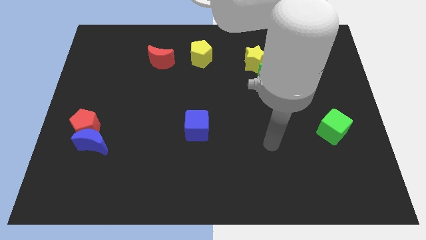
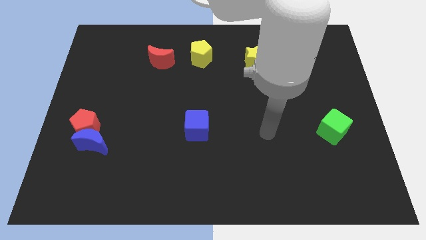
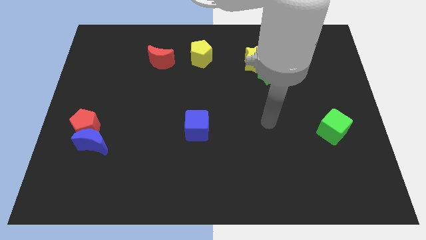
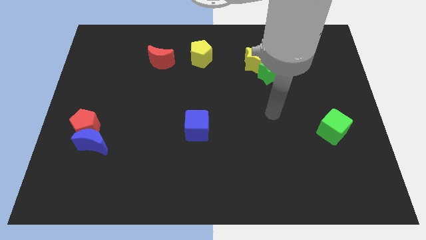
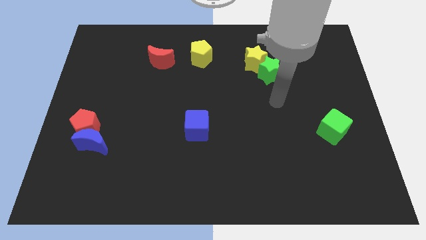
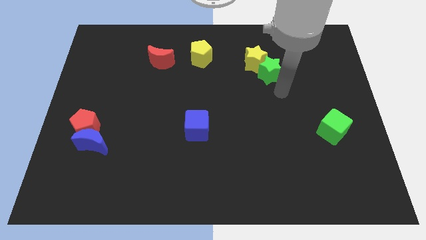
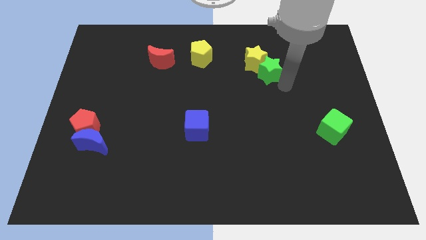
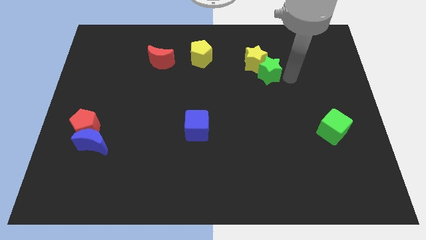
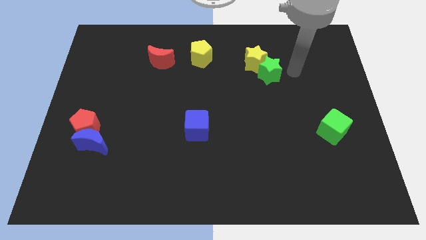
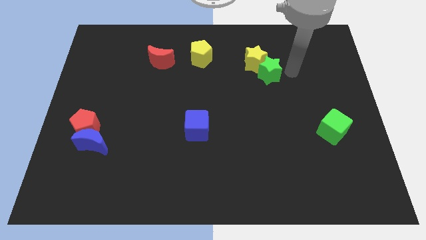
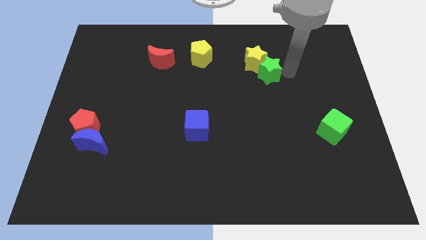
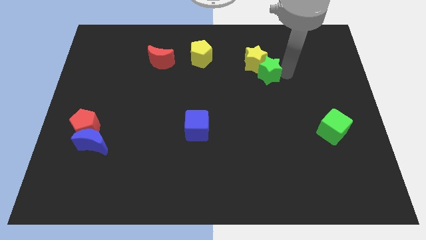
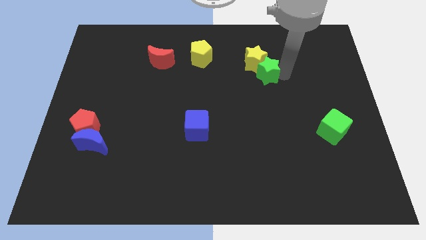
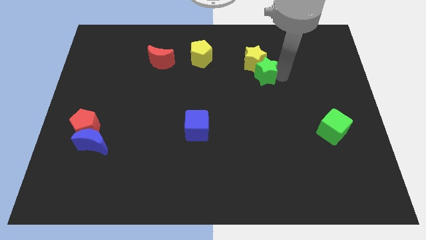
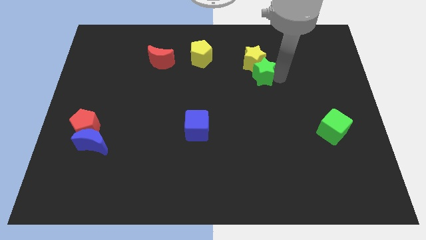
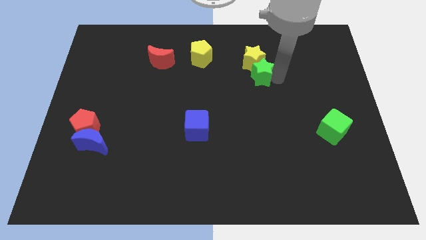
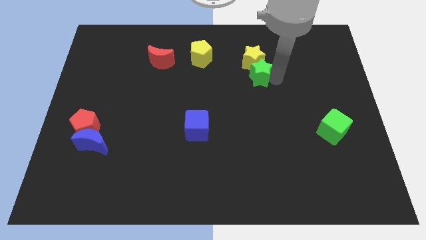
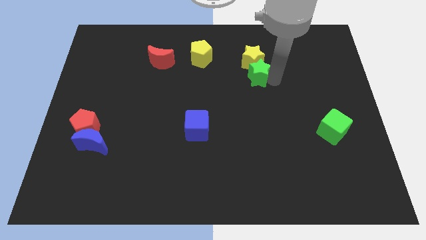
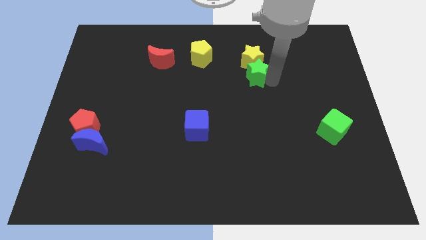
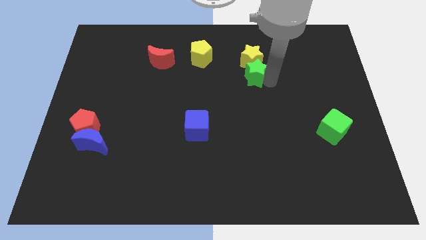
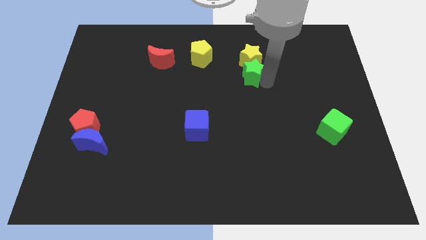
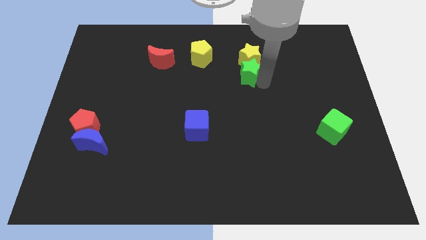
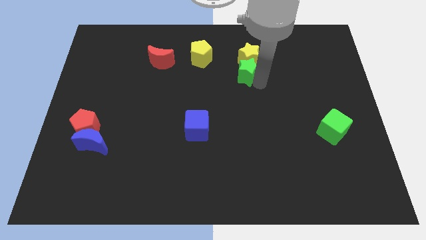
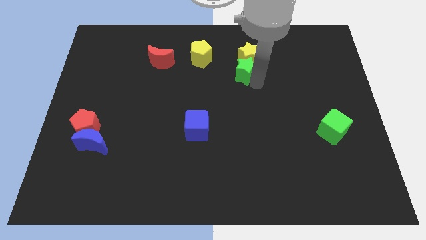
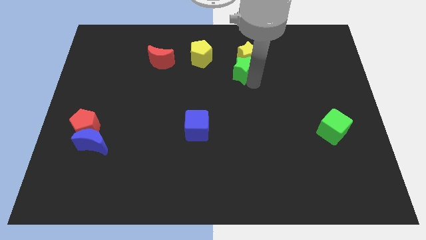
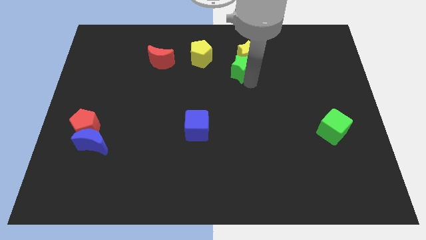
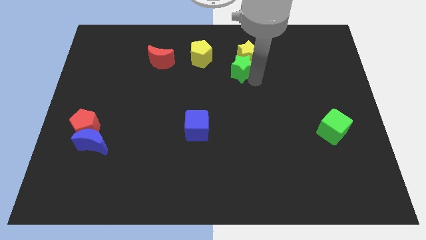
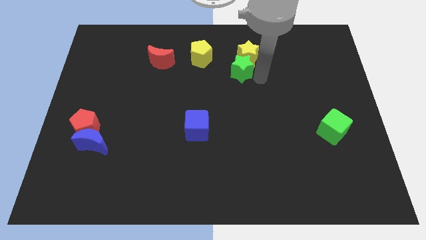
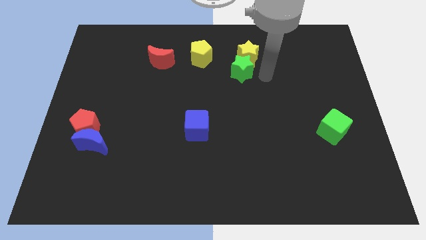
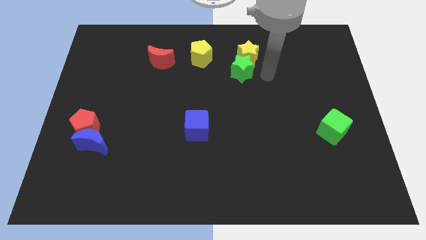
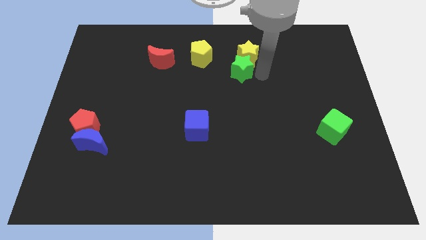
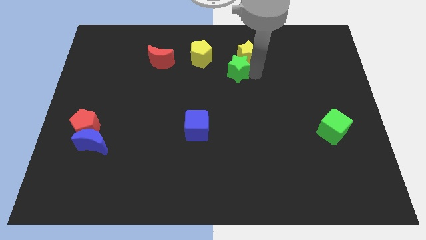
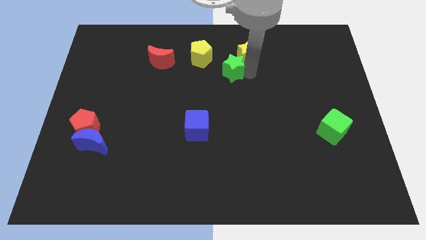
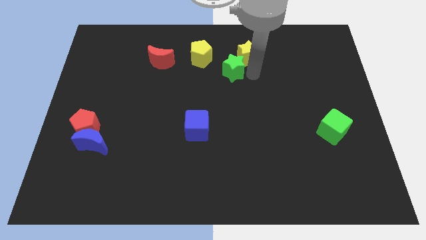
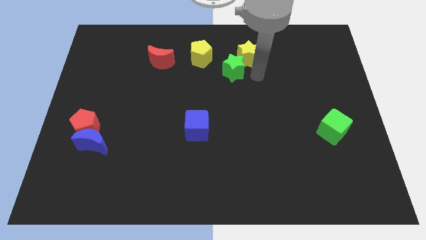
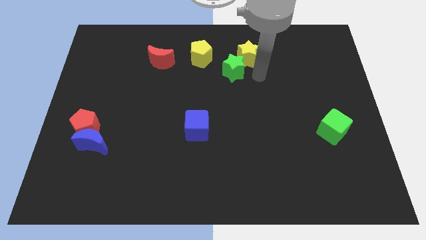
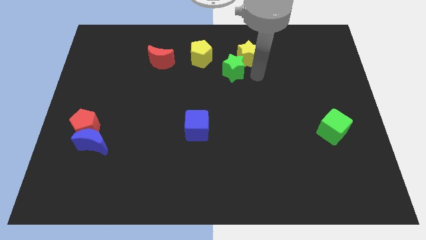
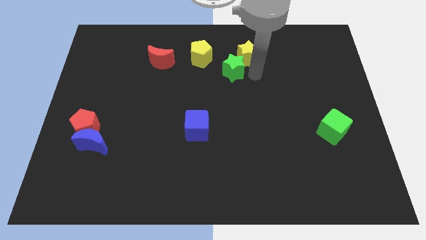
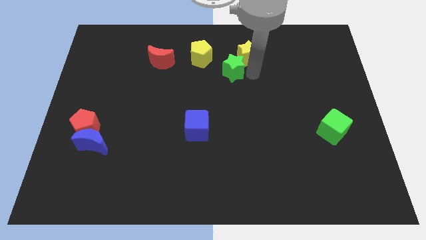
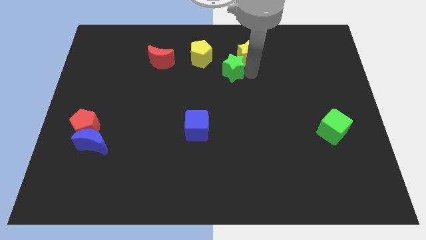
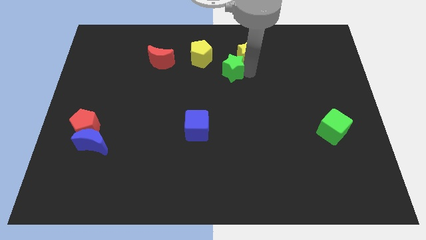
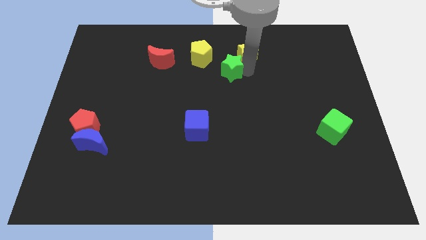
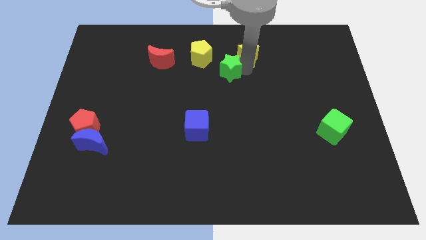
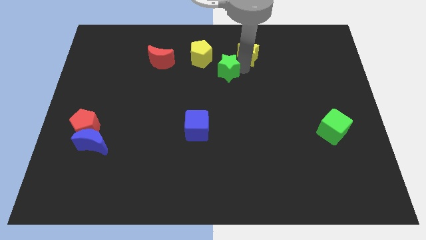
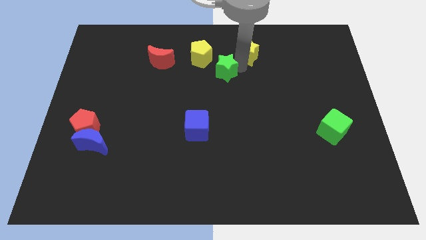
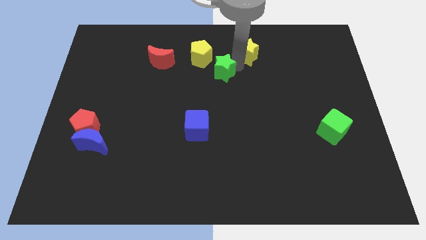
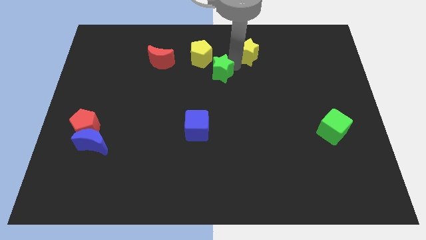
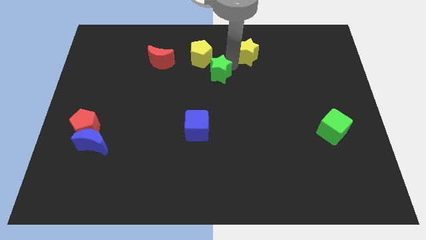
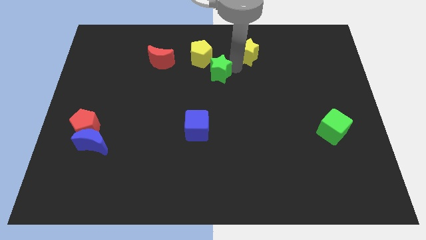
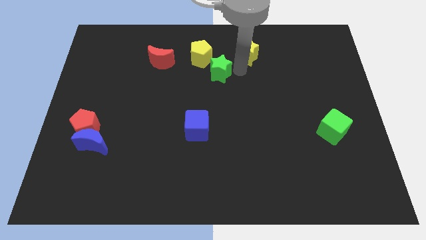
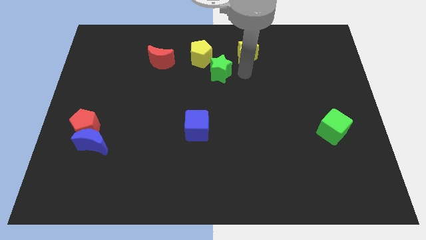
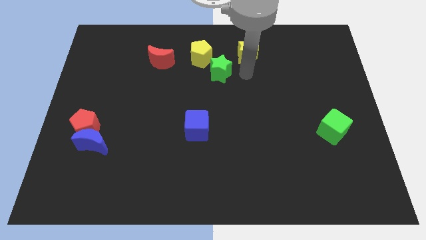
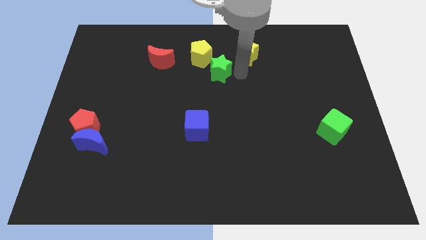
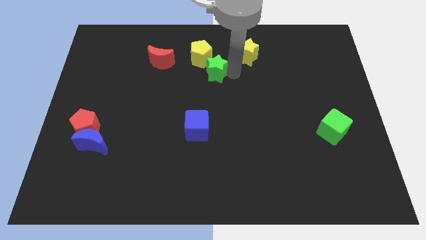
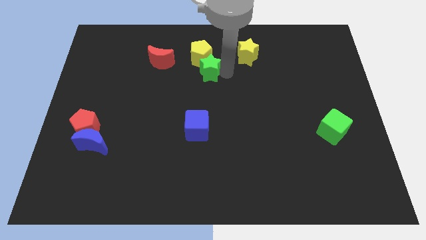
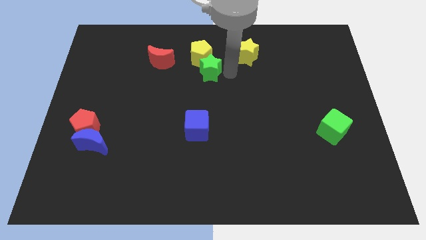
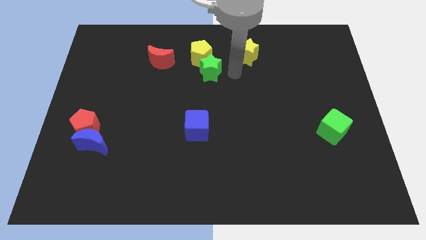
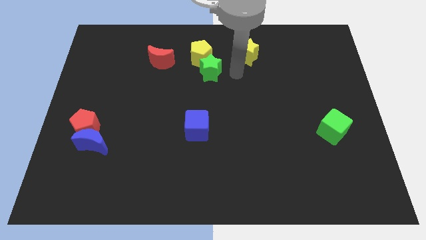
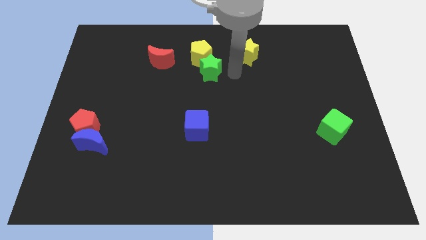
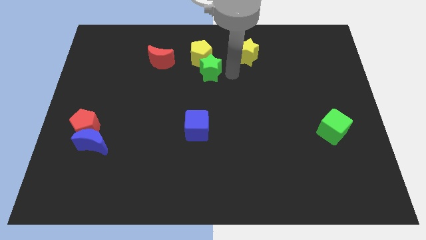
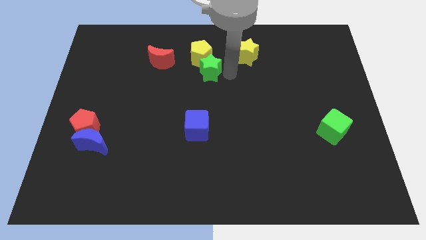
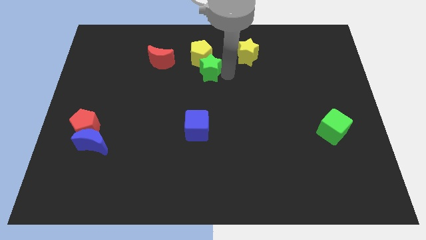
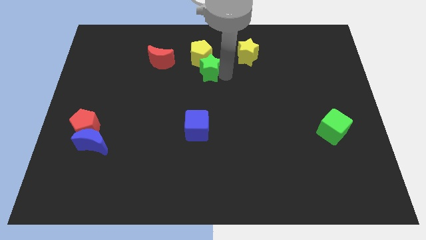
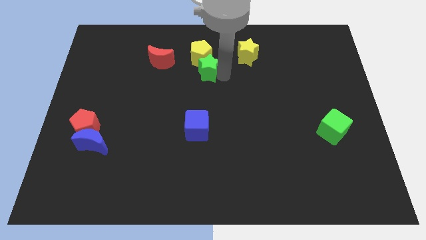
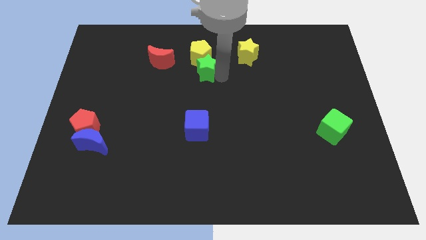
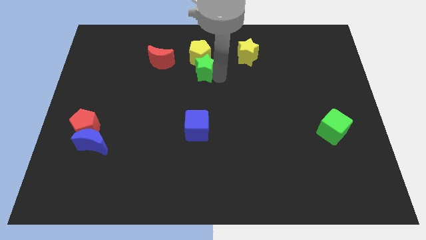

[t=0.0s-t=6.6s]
push the green star to the bottom left of the yellow pentagon
